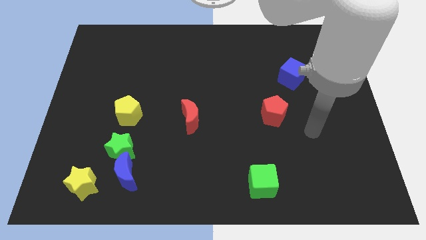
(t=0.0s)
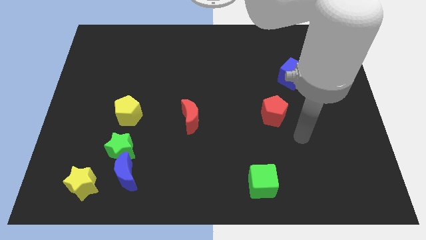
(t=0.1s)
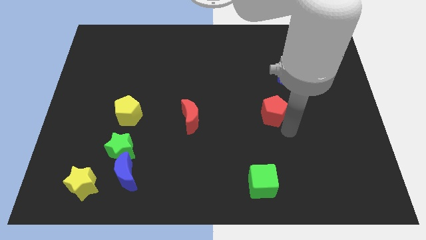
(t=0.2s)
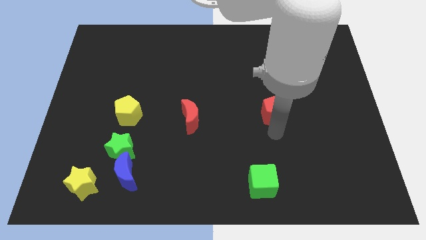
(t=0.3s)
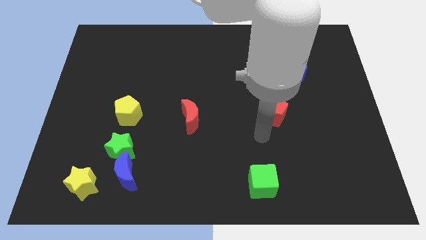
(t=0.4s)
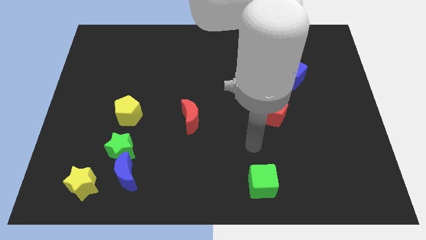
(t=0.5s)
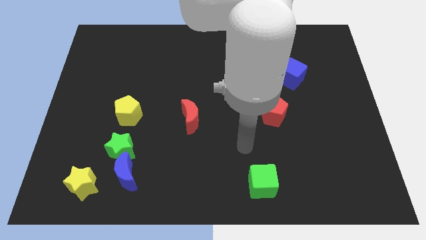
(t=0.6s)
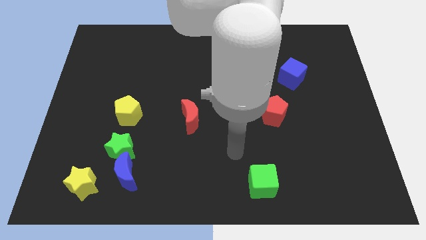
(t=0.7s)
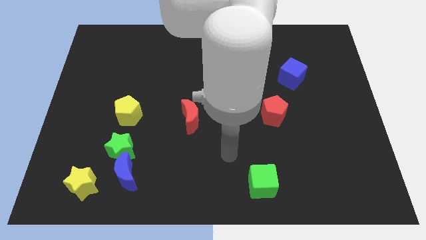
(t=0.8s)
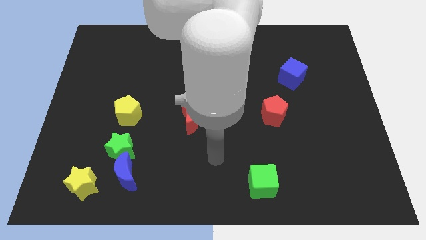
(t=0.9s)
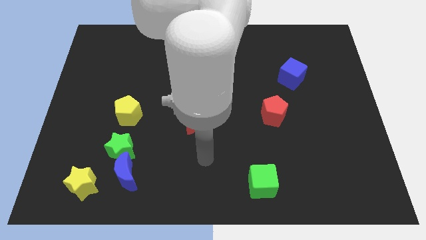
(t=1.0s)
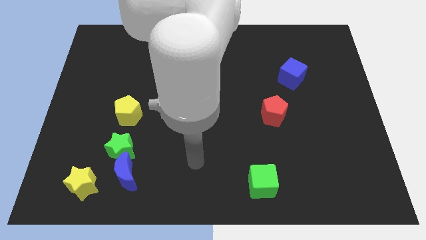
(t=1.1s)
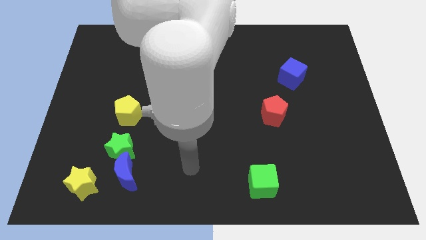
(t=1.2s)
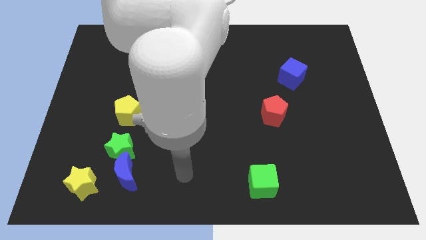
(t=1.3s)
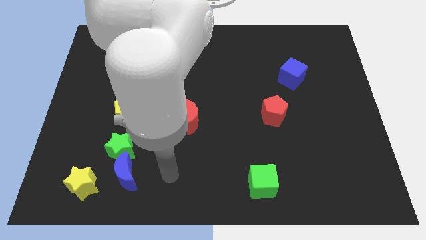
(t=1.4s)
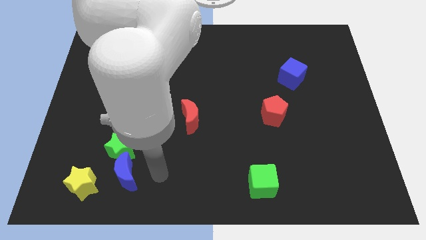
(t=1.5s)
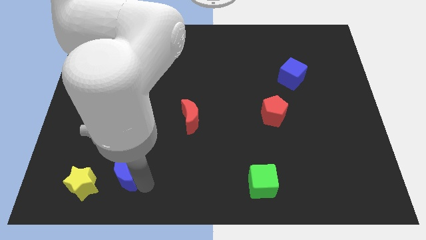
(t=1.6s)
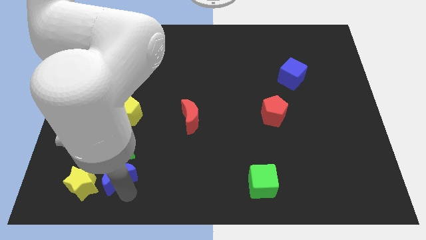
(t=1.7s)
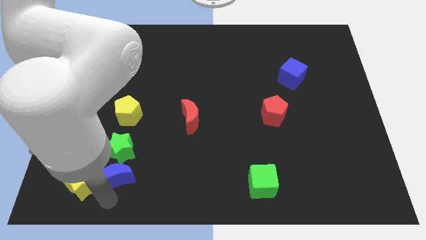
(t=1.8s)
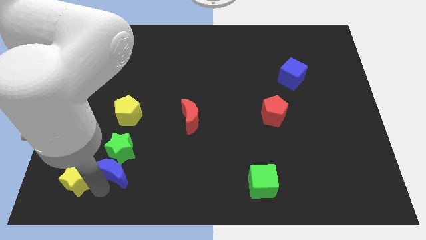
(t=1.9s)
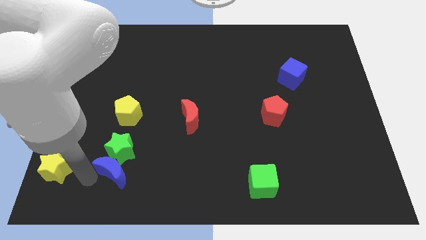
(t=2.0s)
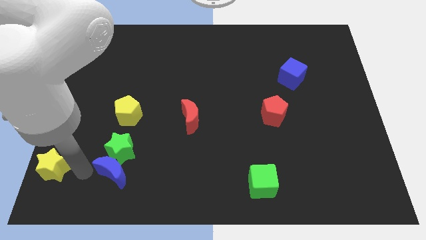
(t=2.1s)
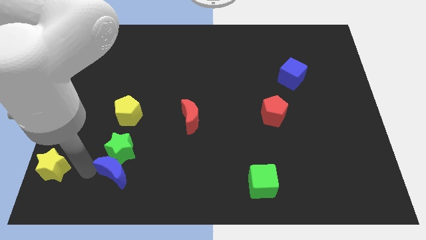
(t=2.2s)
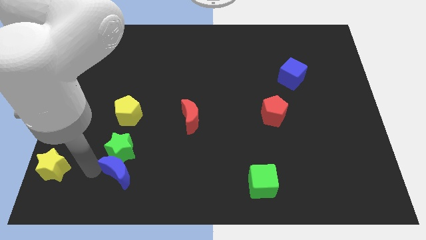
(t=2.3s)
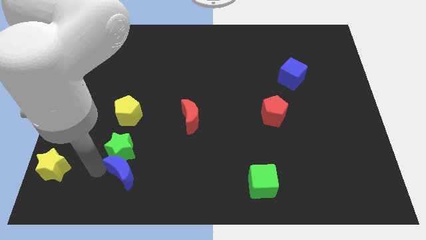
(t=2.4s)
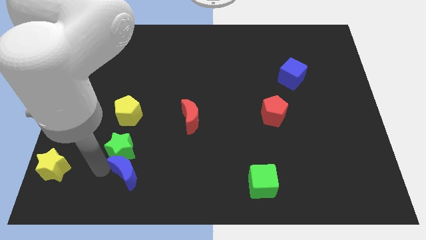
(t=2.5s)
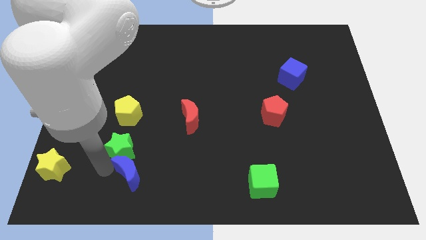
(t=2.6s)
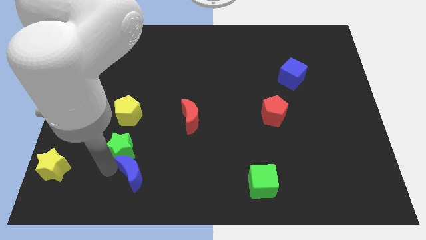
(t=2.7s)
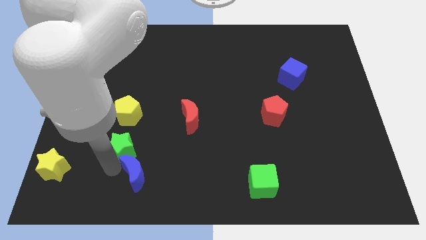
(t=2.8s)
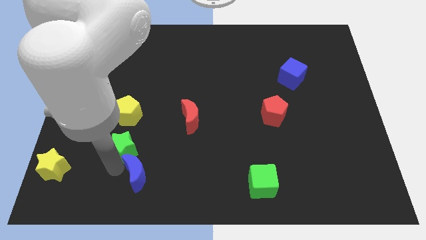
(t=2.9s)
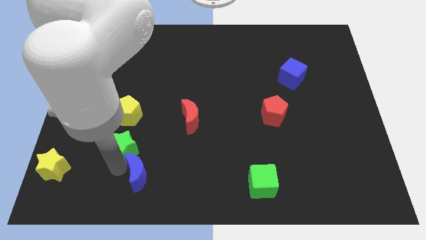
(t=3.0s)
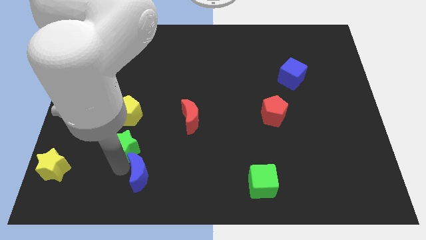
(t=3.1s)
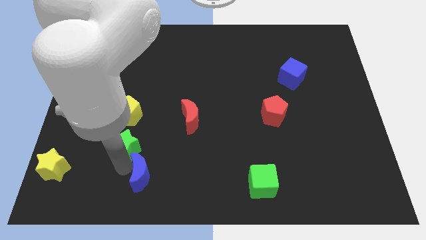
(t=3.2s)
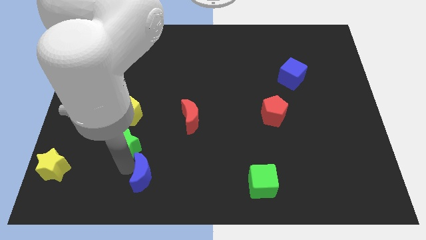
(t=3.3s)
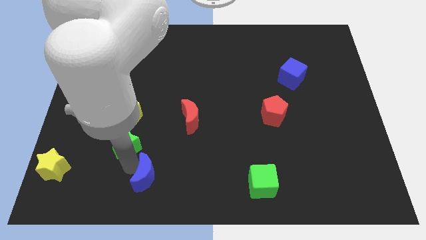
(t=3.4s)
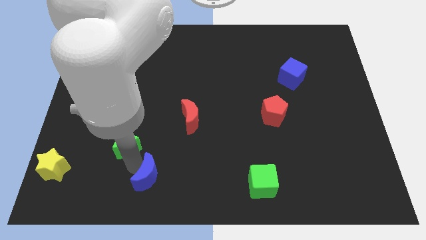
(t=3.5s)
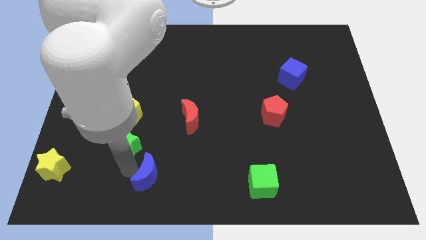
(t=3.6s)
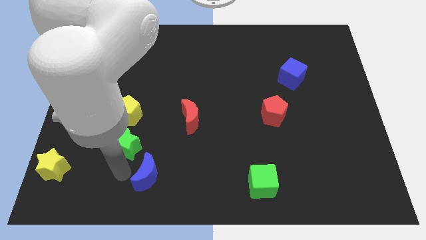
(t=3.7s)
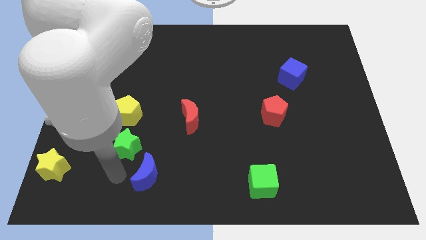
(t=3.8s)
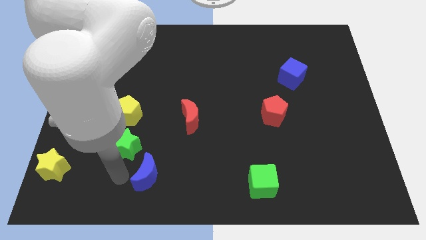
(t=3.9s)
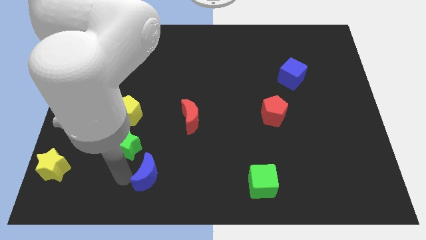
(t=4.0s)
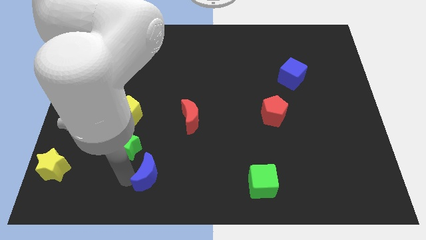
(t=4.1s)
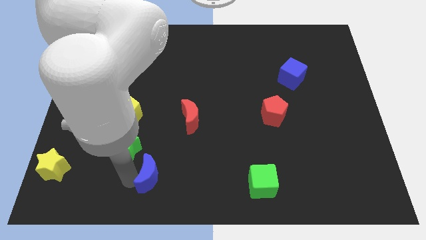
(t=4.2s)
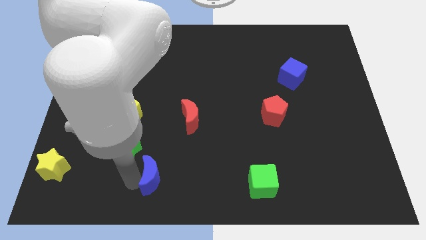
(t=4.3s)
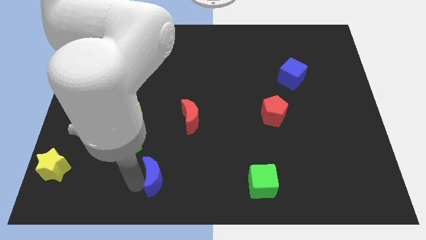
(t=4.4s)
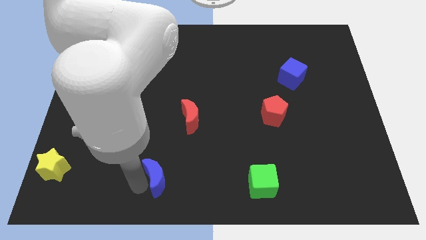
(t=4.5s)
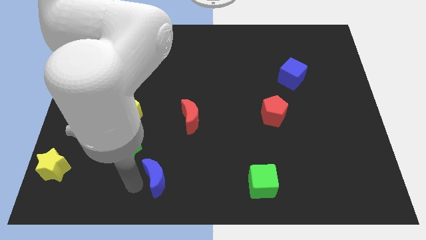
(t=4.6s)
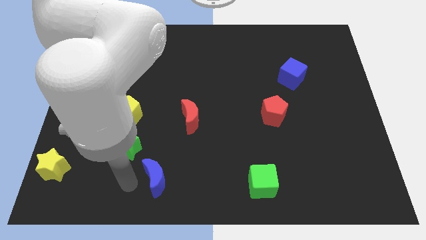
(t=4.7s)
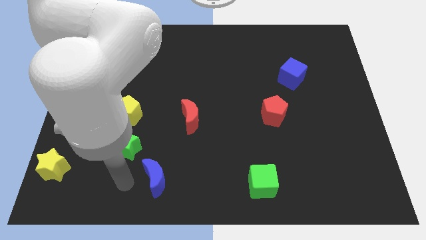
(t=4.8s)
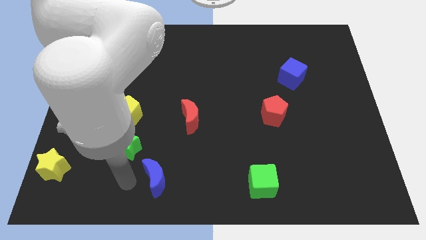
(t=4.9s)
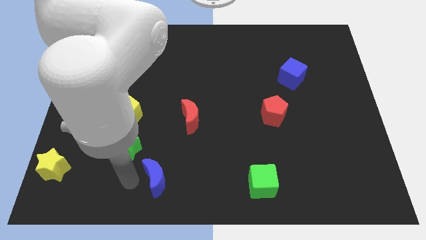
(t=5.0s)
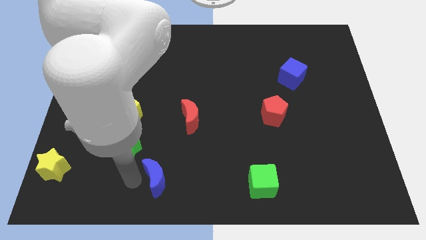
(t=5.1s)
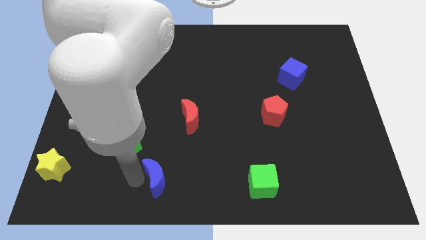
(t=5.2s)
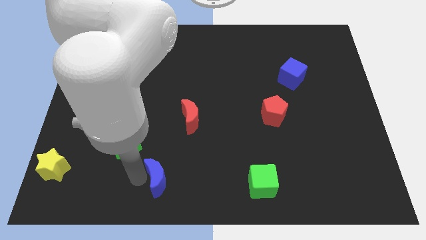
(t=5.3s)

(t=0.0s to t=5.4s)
move the blue moon to the right slightly

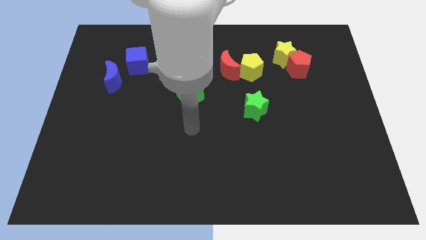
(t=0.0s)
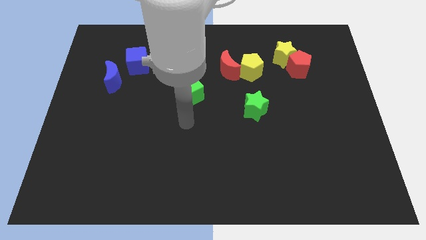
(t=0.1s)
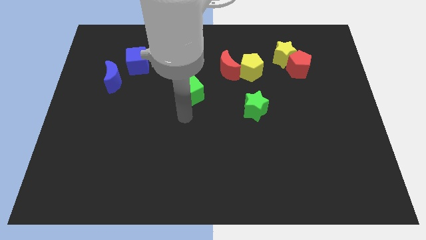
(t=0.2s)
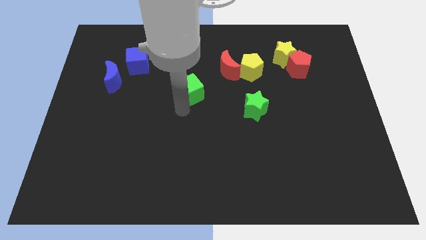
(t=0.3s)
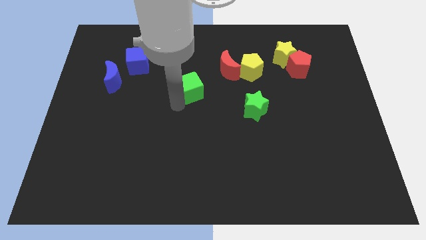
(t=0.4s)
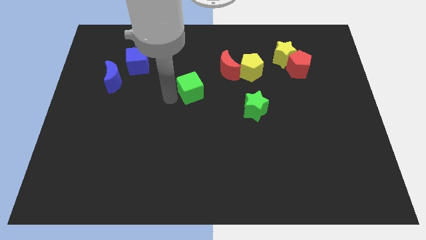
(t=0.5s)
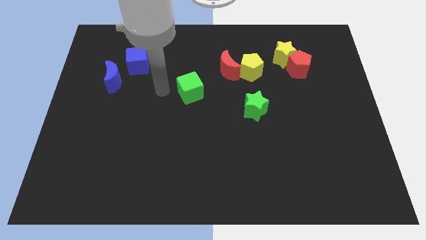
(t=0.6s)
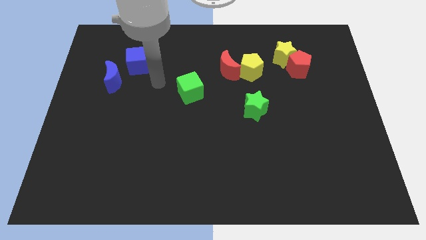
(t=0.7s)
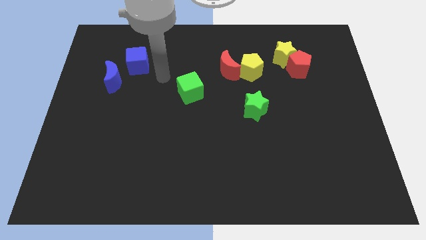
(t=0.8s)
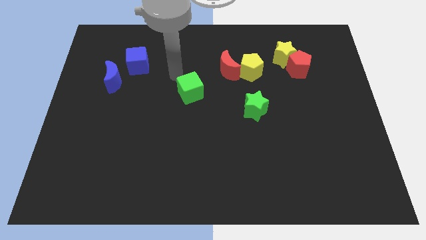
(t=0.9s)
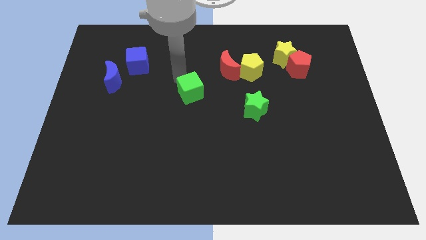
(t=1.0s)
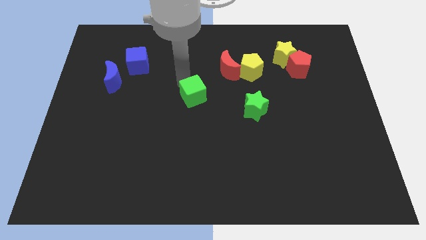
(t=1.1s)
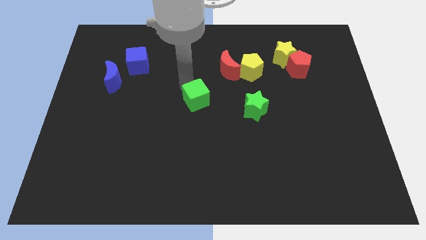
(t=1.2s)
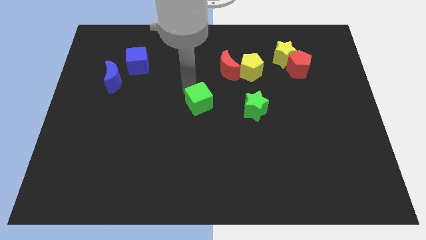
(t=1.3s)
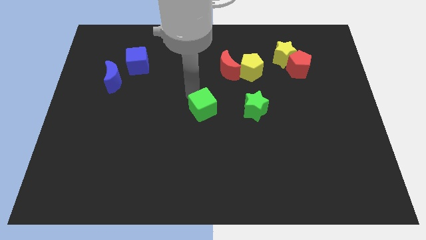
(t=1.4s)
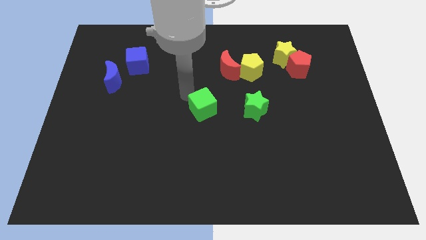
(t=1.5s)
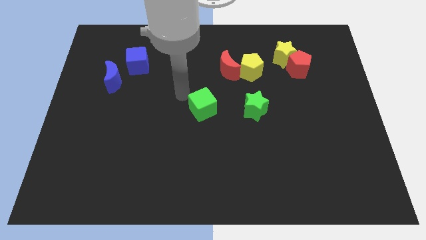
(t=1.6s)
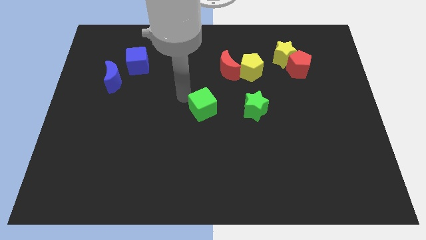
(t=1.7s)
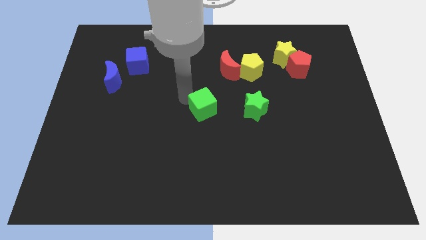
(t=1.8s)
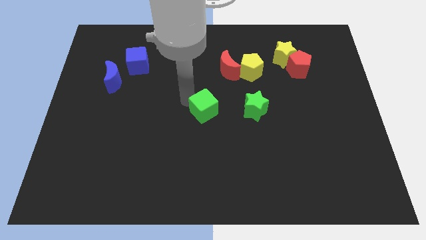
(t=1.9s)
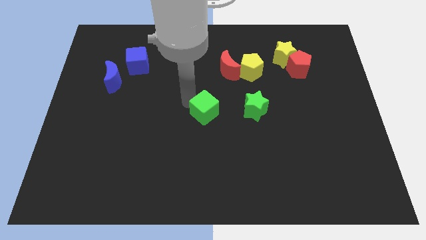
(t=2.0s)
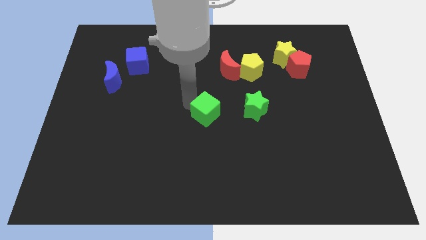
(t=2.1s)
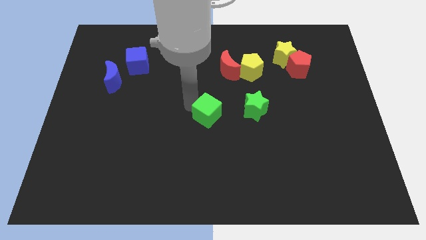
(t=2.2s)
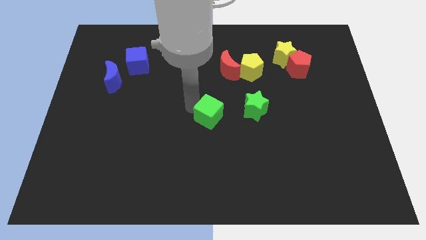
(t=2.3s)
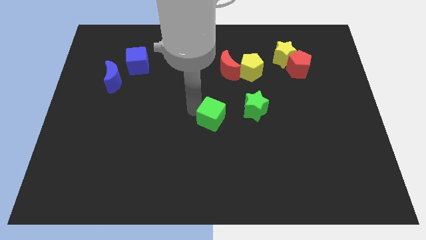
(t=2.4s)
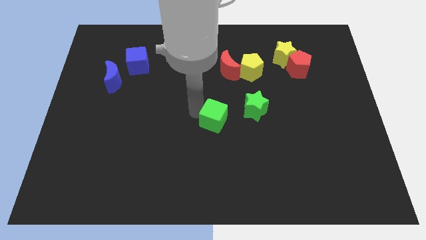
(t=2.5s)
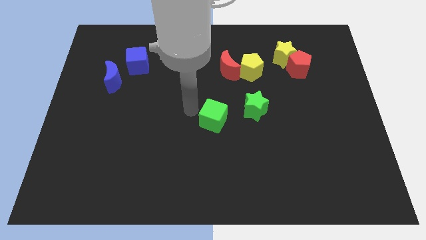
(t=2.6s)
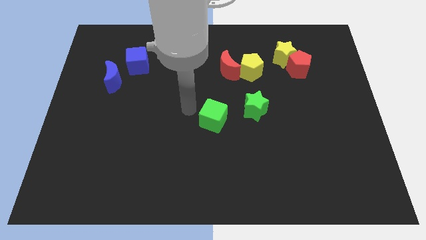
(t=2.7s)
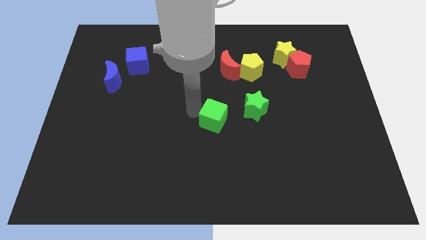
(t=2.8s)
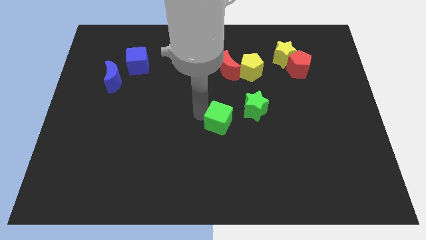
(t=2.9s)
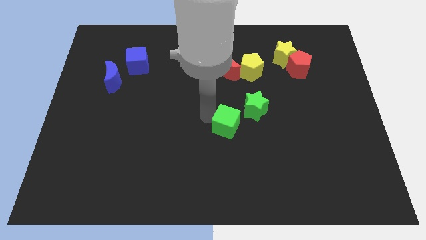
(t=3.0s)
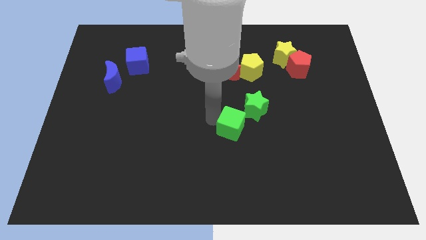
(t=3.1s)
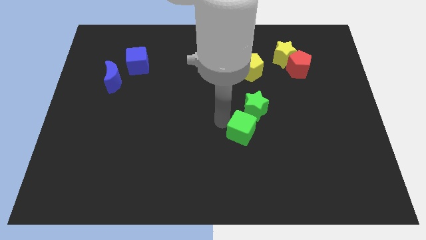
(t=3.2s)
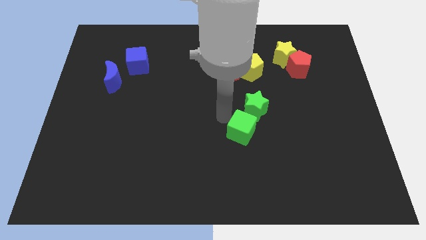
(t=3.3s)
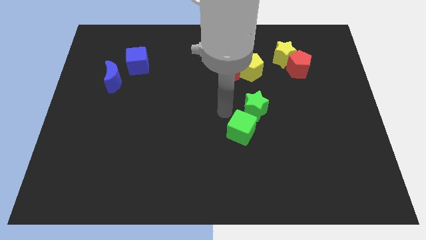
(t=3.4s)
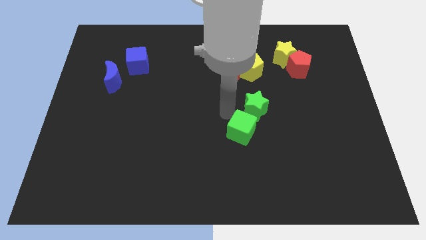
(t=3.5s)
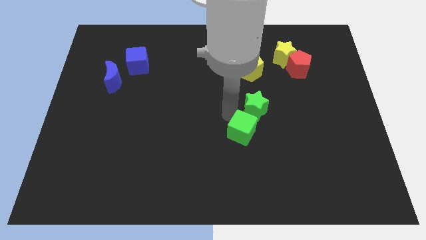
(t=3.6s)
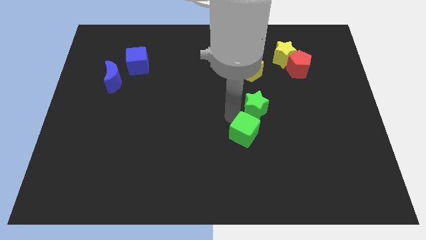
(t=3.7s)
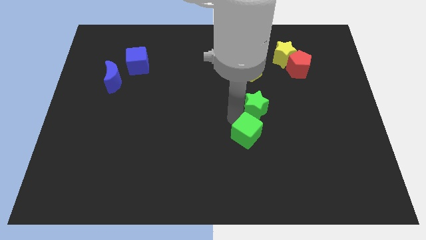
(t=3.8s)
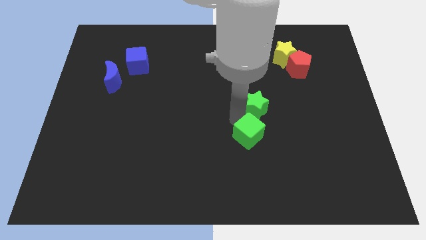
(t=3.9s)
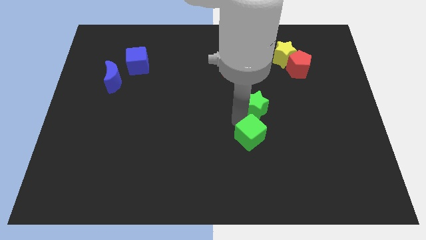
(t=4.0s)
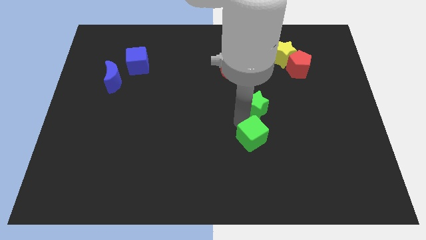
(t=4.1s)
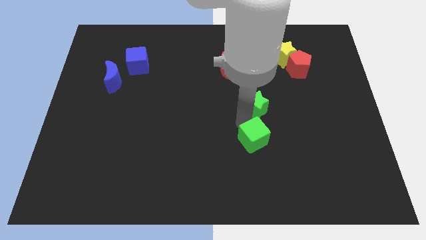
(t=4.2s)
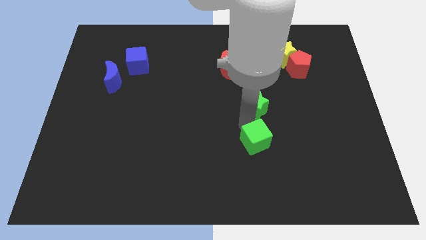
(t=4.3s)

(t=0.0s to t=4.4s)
move the green cube downwards and right
